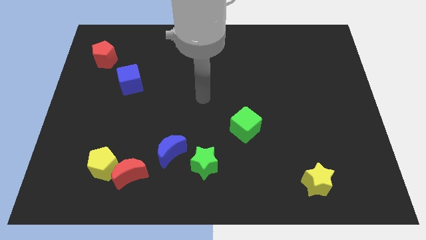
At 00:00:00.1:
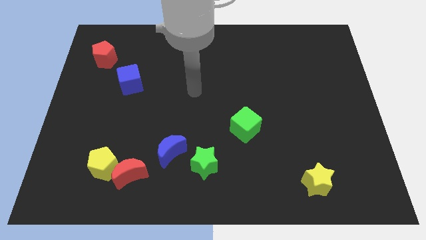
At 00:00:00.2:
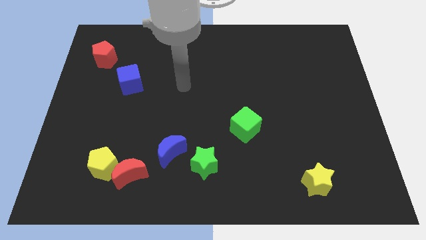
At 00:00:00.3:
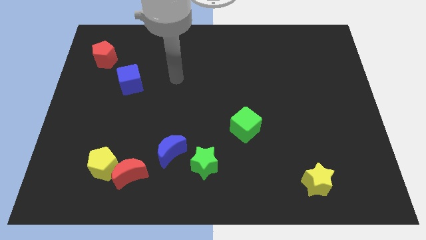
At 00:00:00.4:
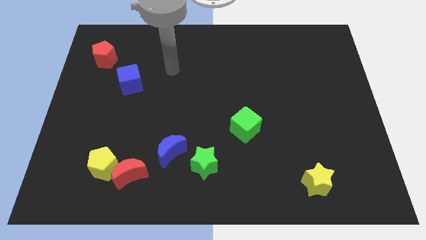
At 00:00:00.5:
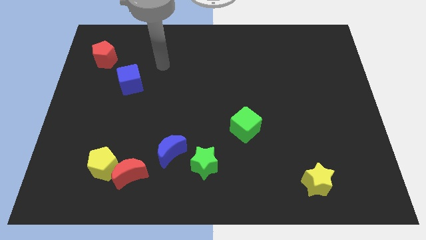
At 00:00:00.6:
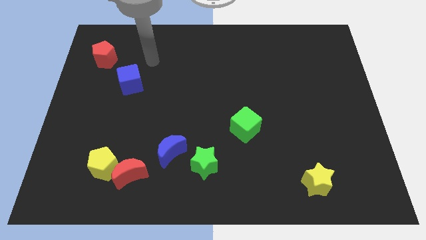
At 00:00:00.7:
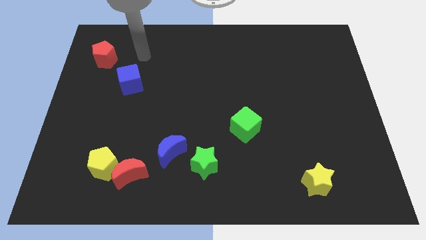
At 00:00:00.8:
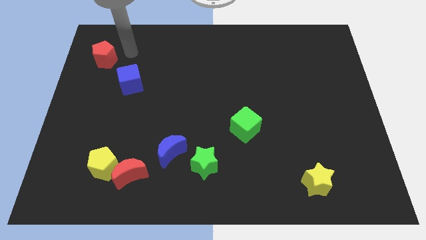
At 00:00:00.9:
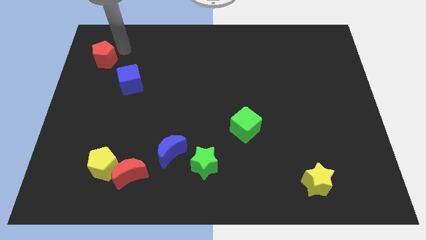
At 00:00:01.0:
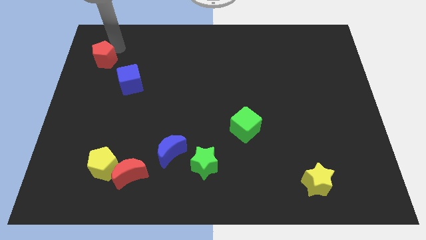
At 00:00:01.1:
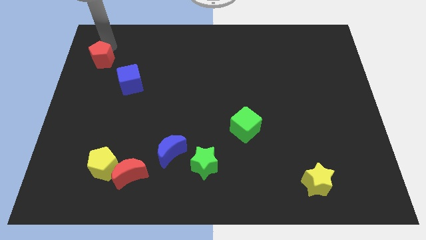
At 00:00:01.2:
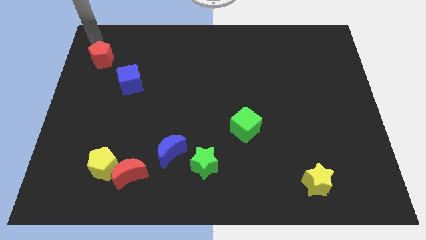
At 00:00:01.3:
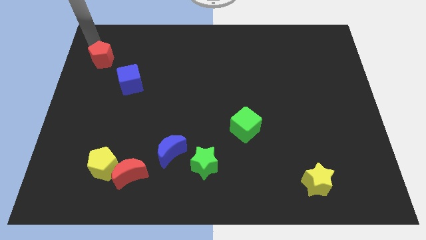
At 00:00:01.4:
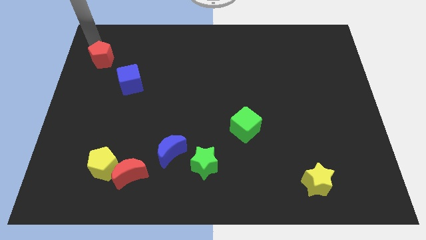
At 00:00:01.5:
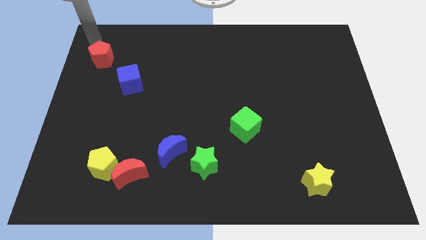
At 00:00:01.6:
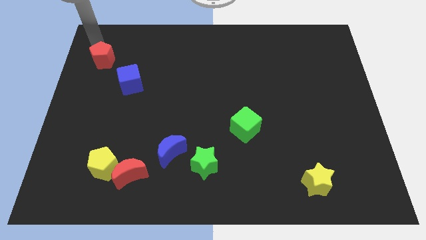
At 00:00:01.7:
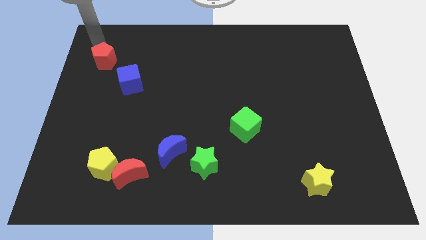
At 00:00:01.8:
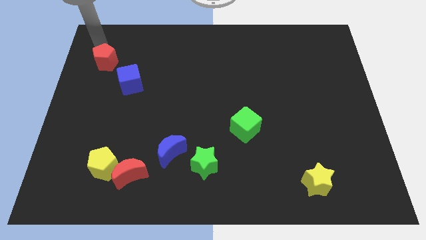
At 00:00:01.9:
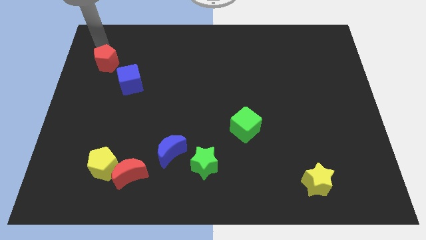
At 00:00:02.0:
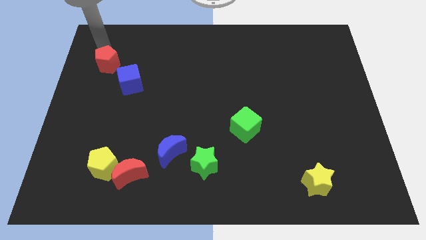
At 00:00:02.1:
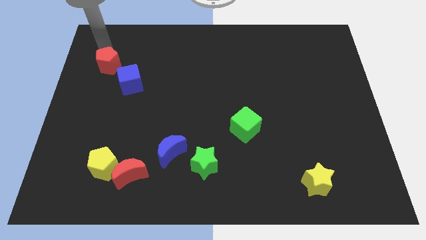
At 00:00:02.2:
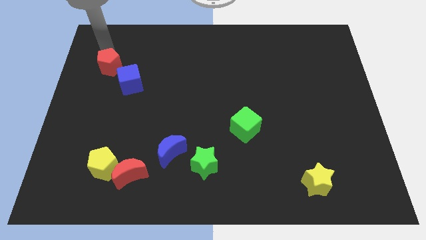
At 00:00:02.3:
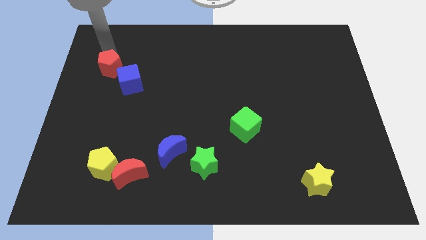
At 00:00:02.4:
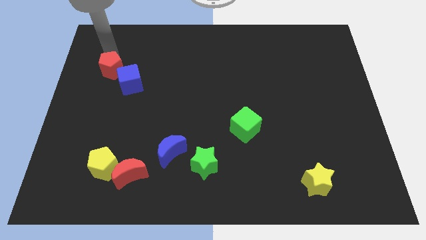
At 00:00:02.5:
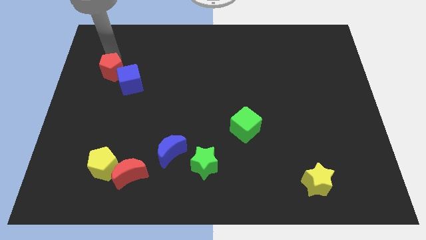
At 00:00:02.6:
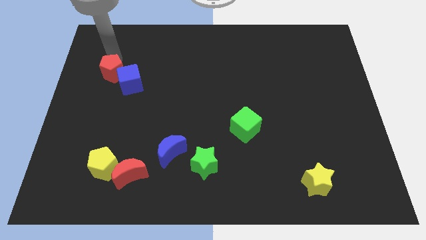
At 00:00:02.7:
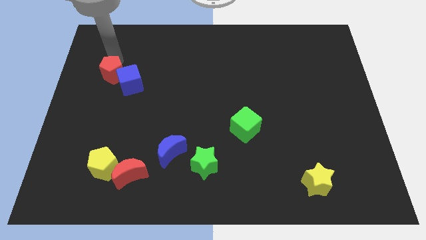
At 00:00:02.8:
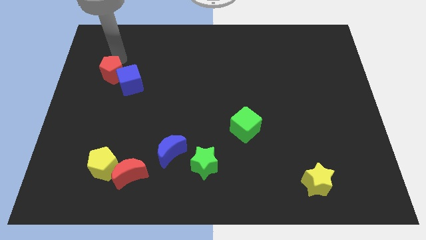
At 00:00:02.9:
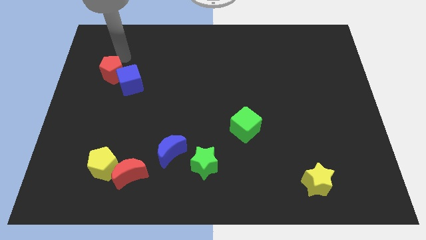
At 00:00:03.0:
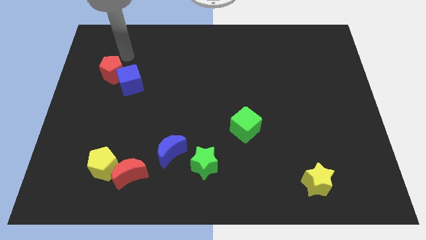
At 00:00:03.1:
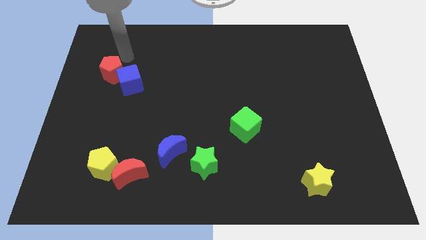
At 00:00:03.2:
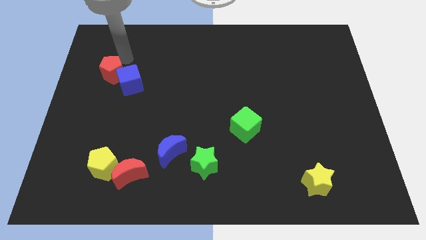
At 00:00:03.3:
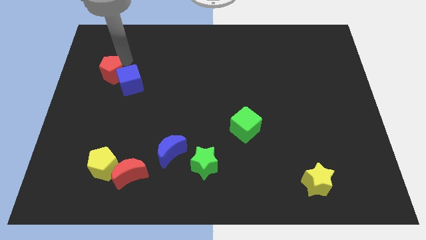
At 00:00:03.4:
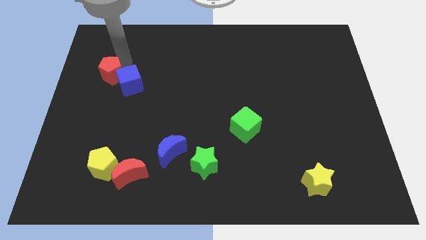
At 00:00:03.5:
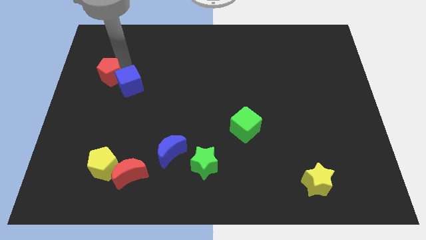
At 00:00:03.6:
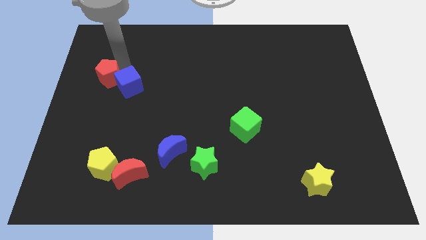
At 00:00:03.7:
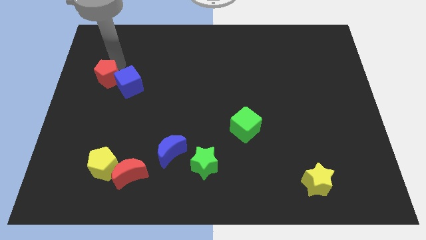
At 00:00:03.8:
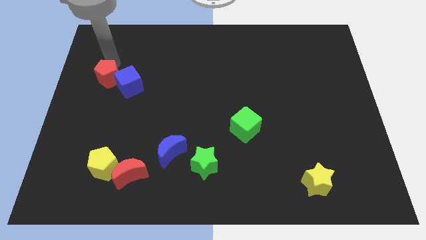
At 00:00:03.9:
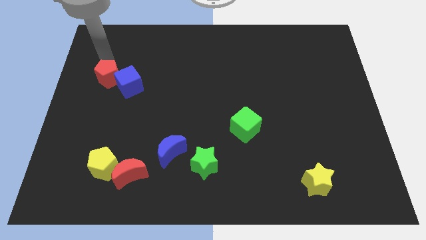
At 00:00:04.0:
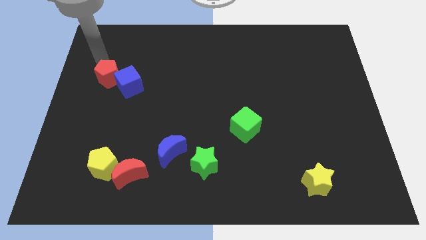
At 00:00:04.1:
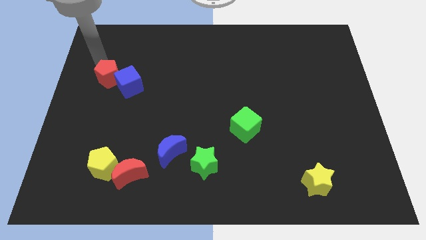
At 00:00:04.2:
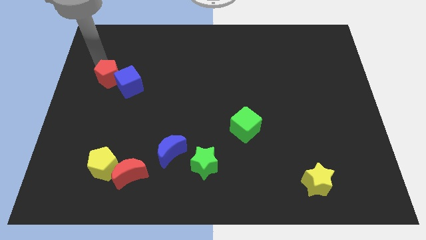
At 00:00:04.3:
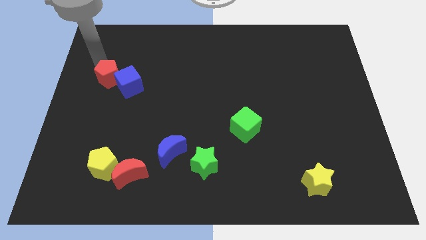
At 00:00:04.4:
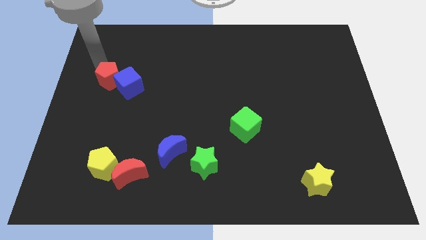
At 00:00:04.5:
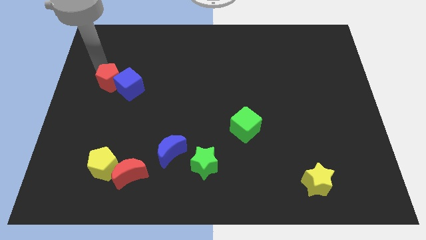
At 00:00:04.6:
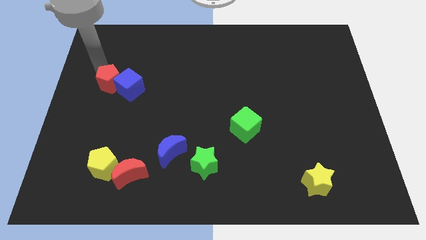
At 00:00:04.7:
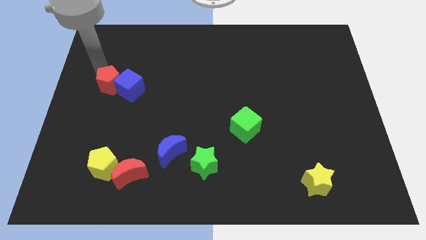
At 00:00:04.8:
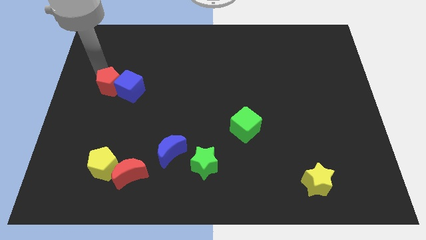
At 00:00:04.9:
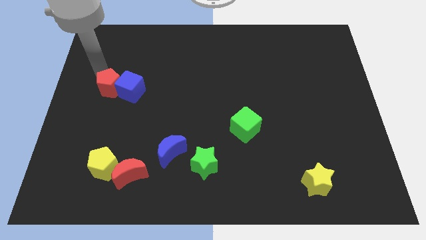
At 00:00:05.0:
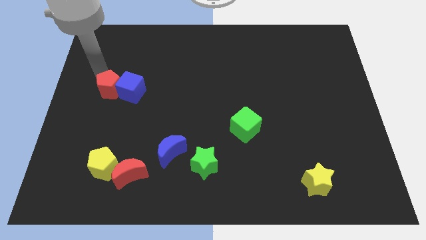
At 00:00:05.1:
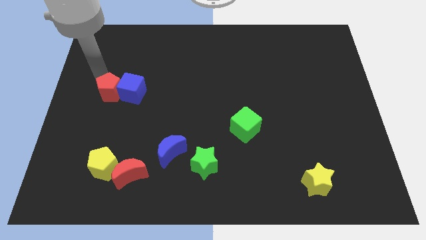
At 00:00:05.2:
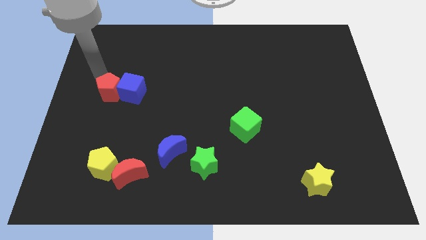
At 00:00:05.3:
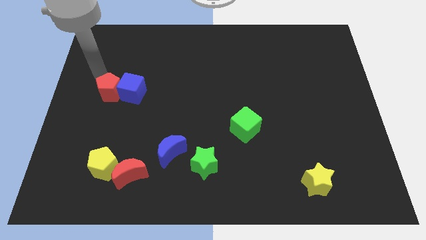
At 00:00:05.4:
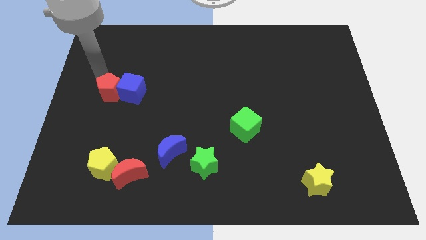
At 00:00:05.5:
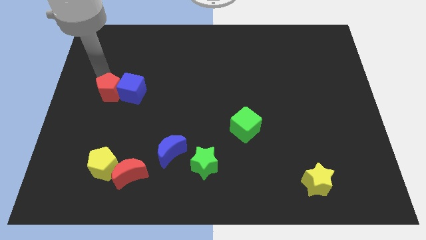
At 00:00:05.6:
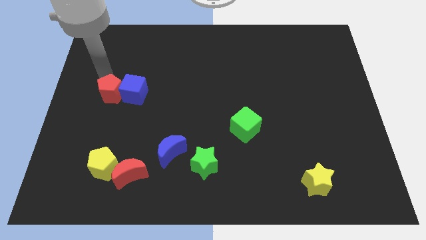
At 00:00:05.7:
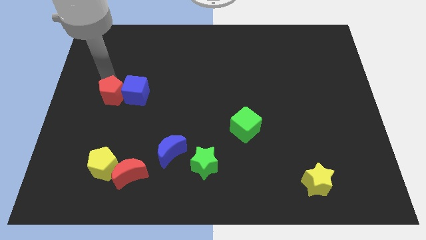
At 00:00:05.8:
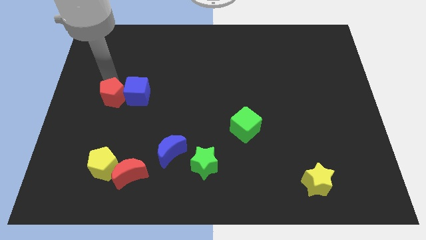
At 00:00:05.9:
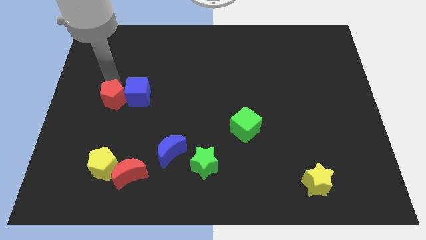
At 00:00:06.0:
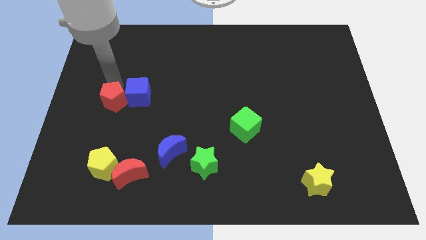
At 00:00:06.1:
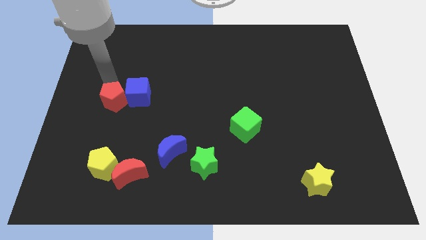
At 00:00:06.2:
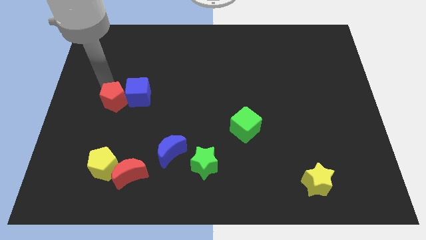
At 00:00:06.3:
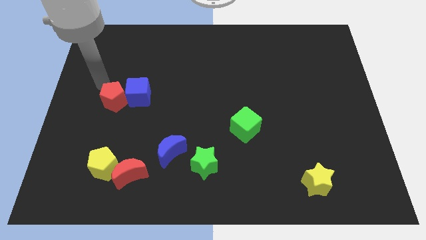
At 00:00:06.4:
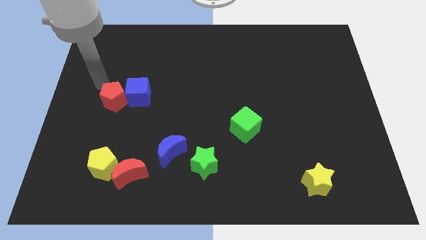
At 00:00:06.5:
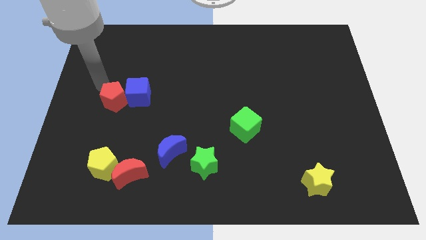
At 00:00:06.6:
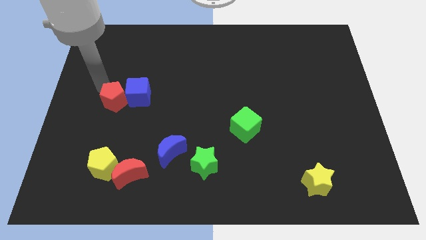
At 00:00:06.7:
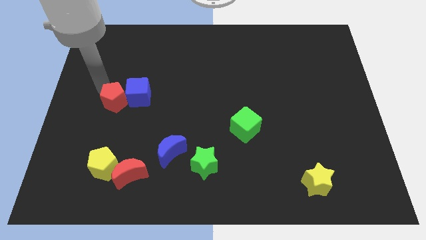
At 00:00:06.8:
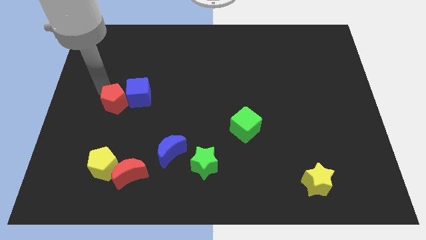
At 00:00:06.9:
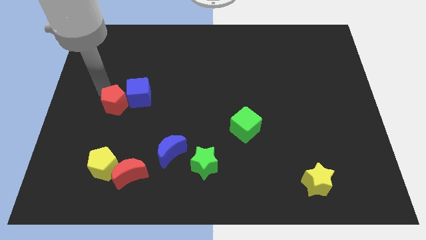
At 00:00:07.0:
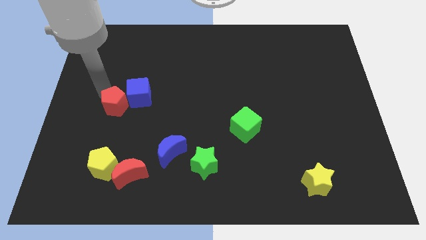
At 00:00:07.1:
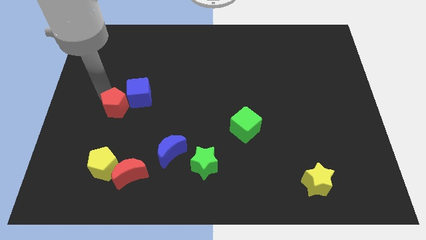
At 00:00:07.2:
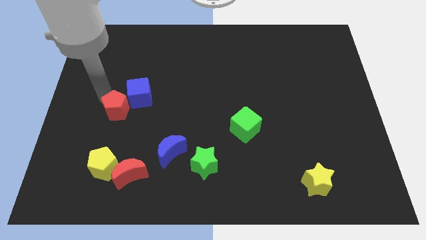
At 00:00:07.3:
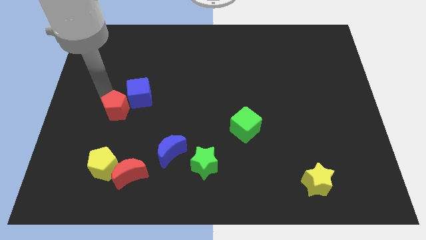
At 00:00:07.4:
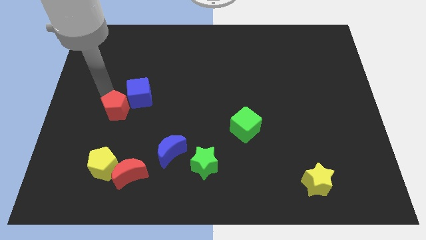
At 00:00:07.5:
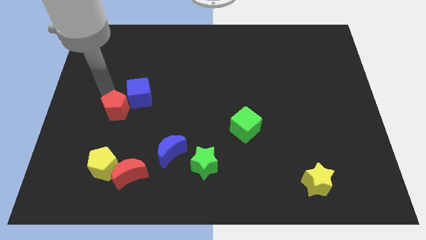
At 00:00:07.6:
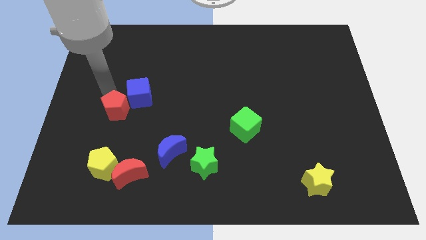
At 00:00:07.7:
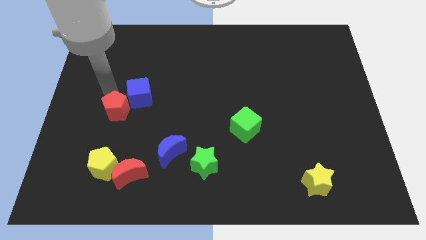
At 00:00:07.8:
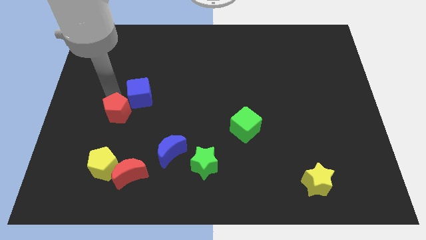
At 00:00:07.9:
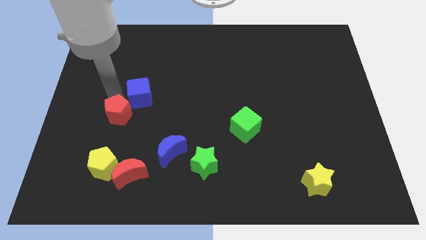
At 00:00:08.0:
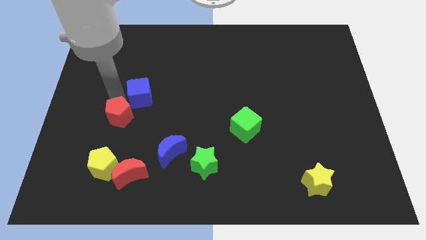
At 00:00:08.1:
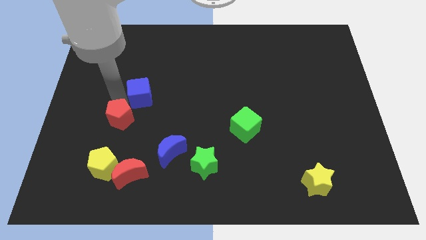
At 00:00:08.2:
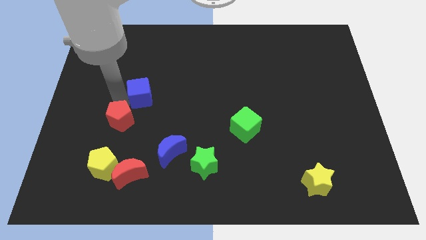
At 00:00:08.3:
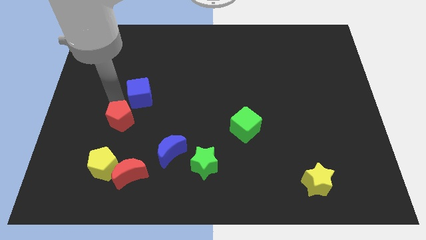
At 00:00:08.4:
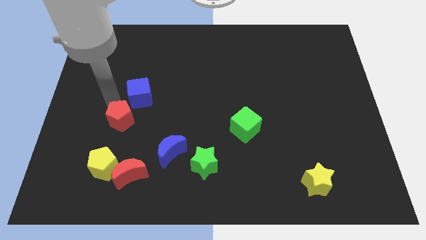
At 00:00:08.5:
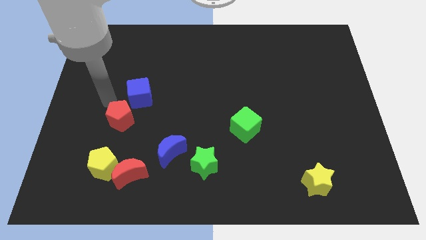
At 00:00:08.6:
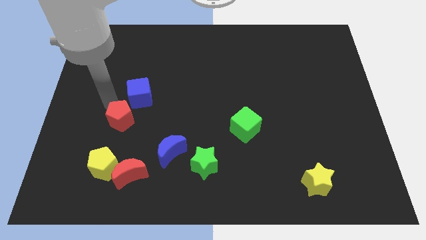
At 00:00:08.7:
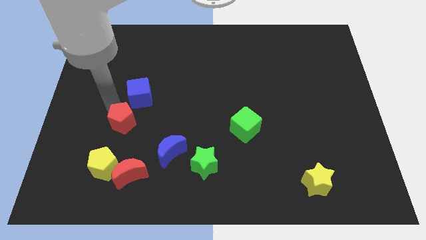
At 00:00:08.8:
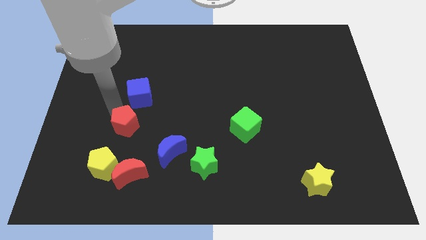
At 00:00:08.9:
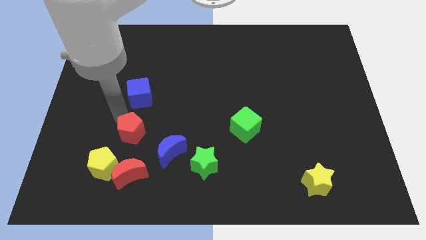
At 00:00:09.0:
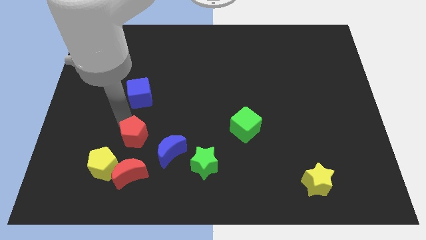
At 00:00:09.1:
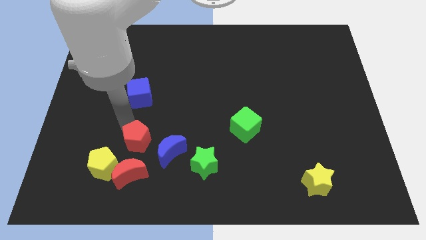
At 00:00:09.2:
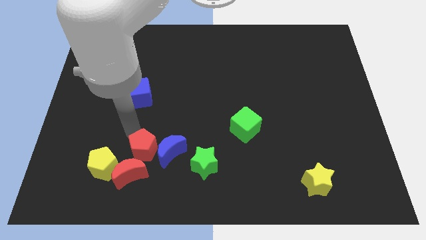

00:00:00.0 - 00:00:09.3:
put the red pentagon just left of the green star
